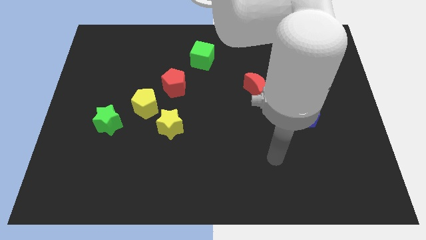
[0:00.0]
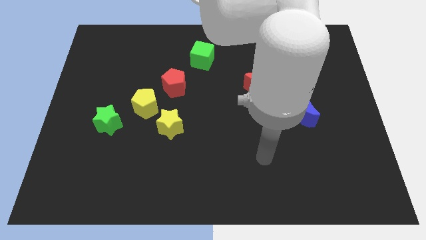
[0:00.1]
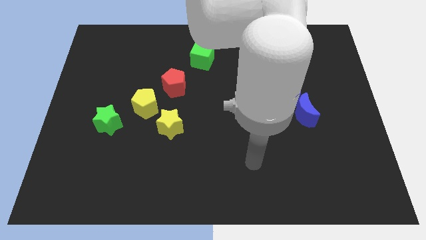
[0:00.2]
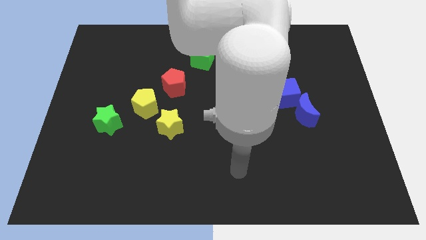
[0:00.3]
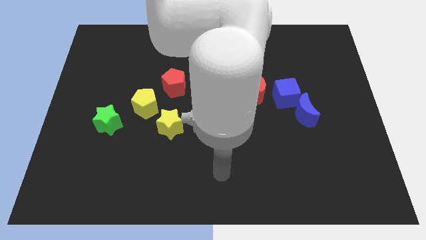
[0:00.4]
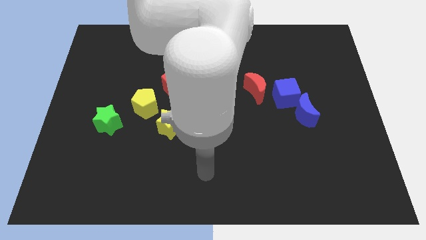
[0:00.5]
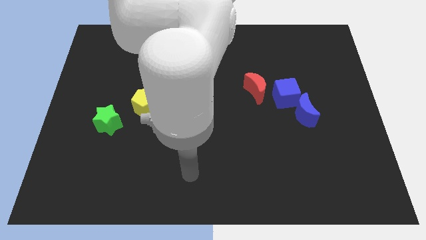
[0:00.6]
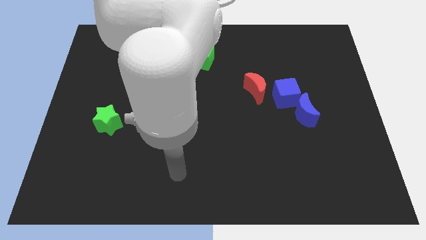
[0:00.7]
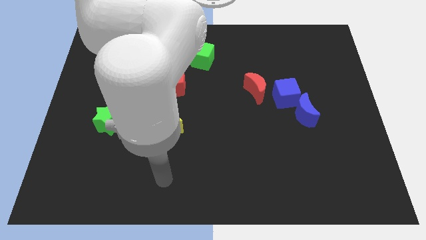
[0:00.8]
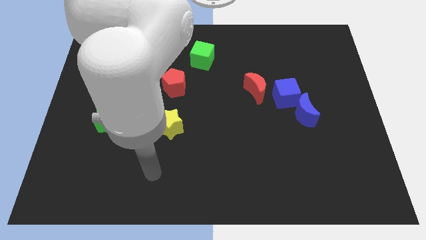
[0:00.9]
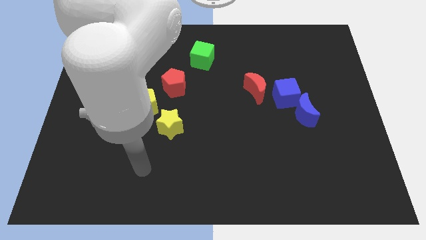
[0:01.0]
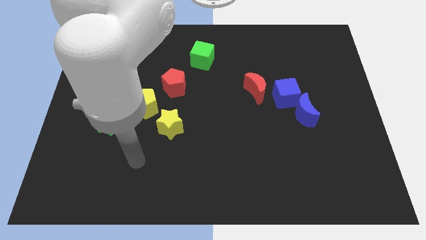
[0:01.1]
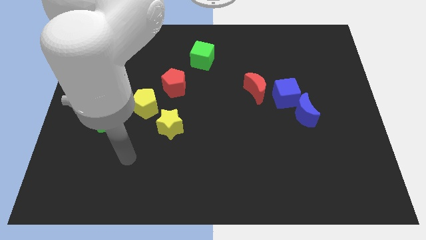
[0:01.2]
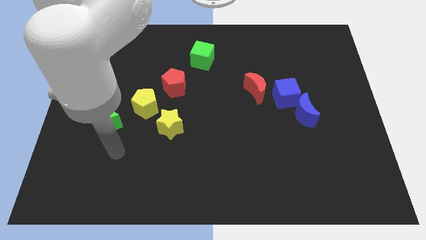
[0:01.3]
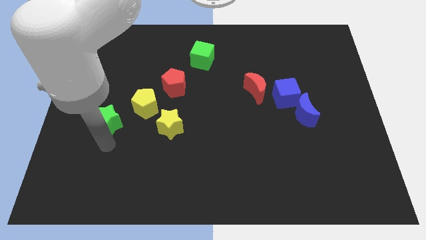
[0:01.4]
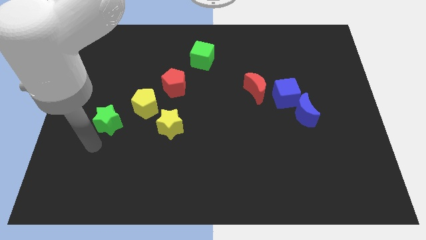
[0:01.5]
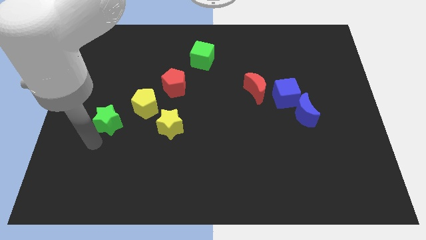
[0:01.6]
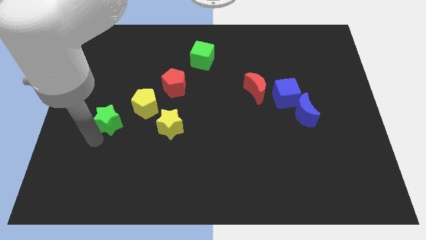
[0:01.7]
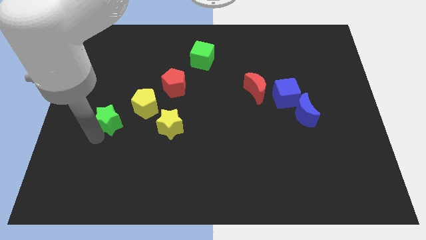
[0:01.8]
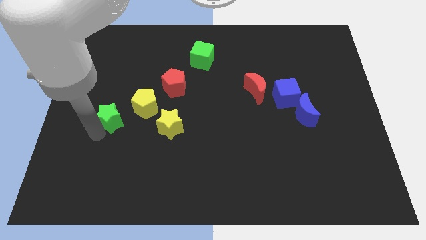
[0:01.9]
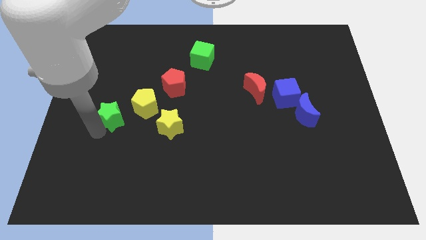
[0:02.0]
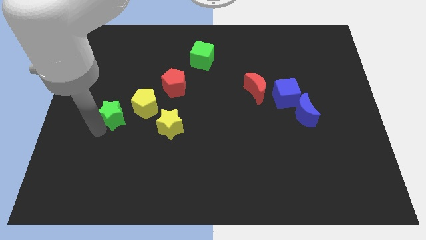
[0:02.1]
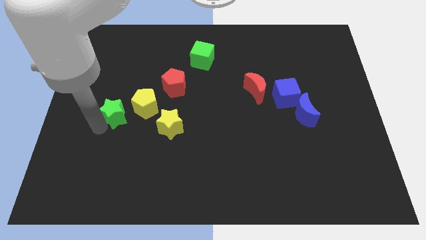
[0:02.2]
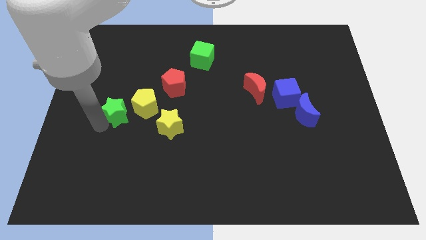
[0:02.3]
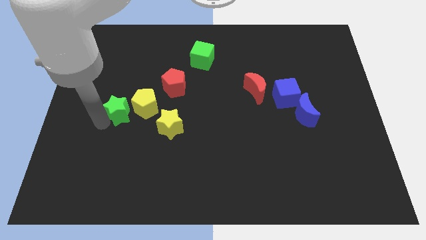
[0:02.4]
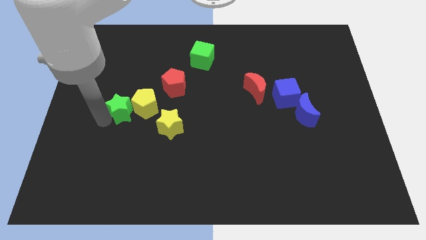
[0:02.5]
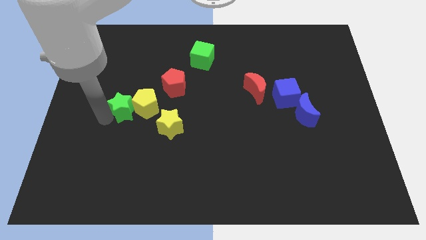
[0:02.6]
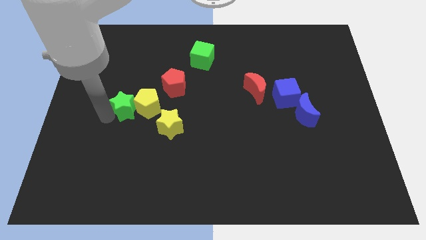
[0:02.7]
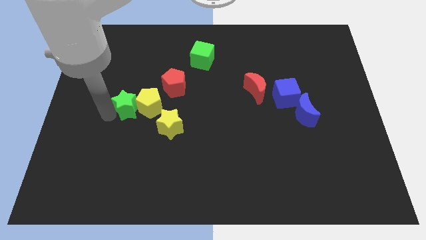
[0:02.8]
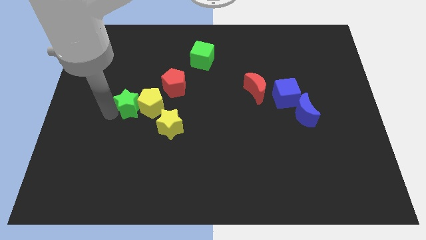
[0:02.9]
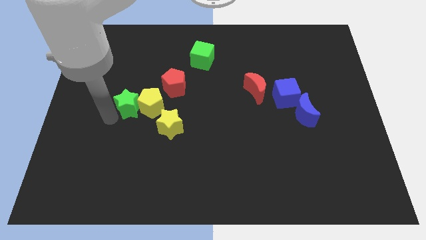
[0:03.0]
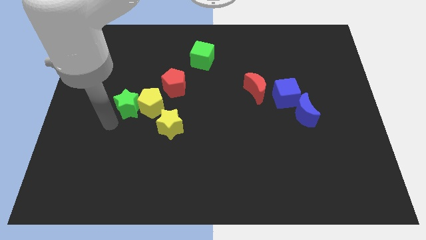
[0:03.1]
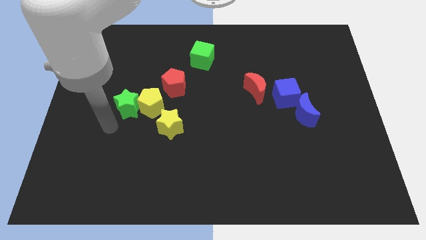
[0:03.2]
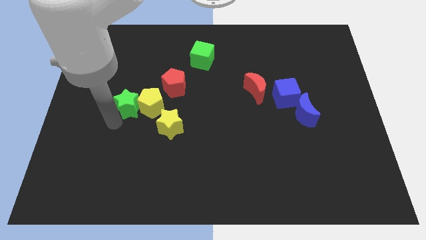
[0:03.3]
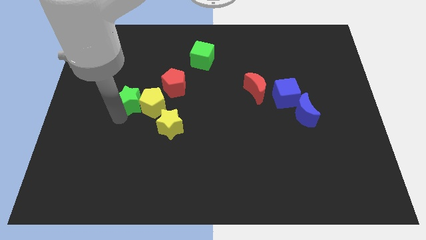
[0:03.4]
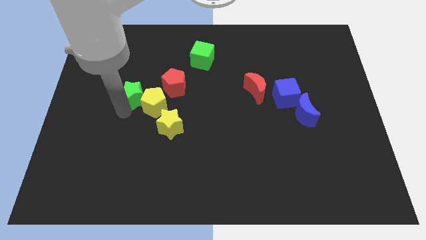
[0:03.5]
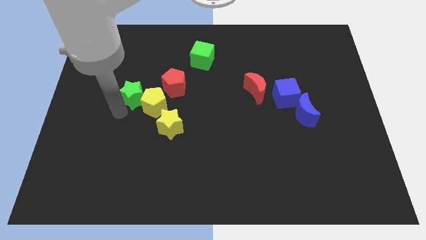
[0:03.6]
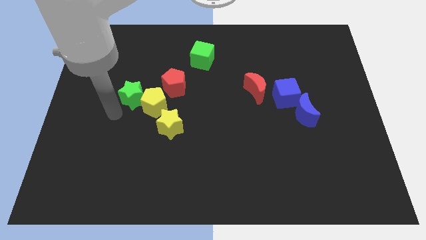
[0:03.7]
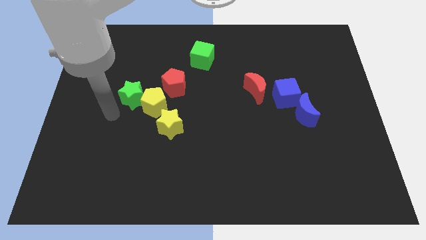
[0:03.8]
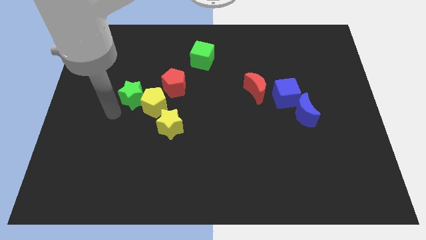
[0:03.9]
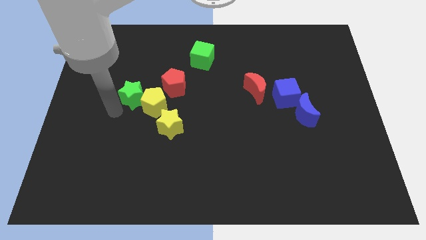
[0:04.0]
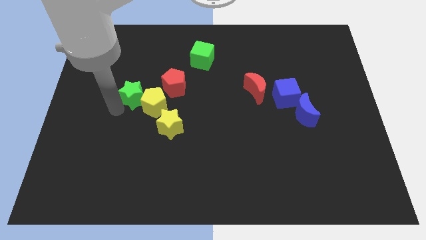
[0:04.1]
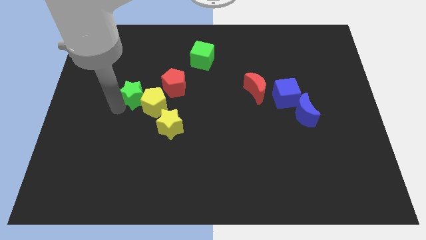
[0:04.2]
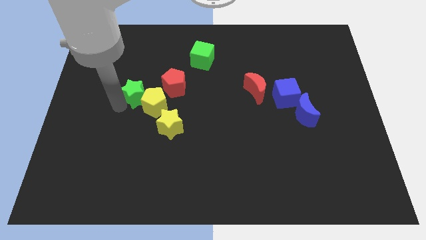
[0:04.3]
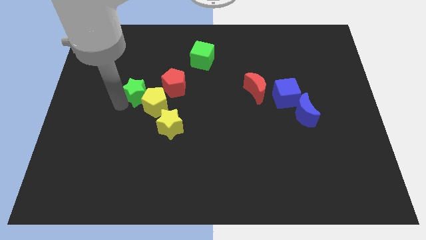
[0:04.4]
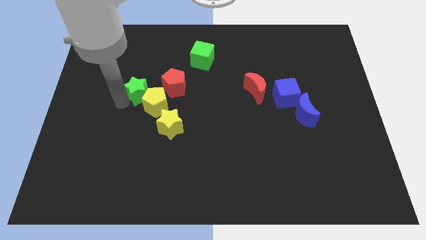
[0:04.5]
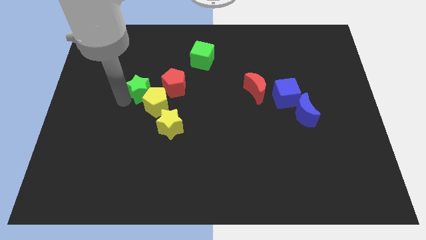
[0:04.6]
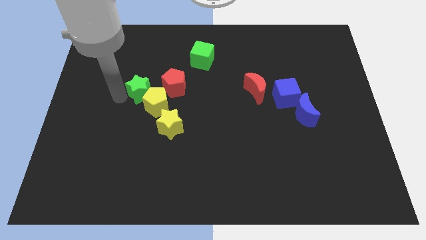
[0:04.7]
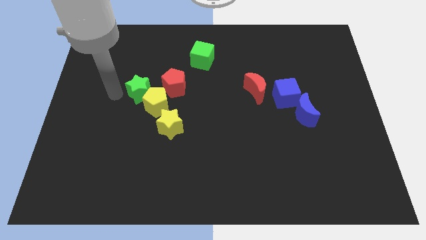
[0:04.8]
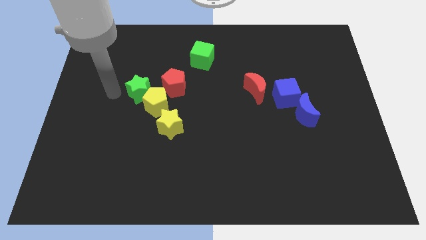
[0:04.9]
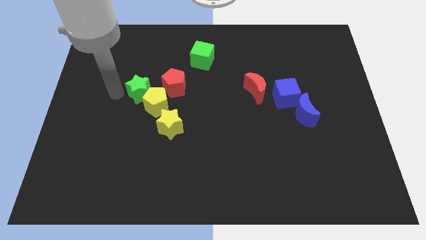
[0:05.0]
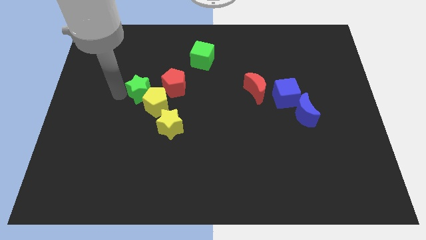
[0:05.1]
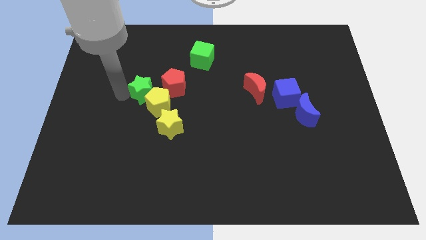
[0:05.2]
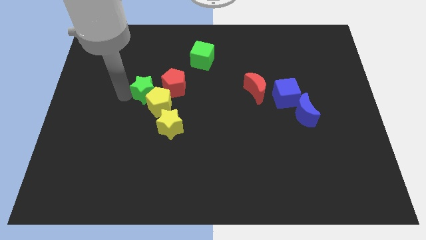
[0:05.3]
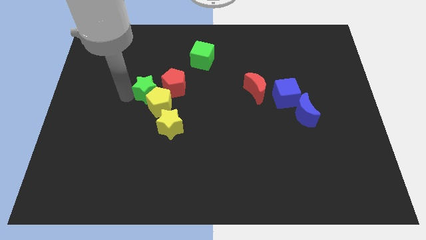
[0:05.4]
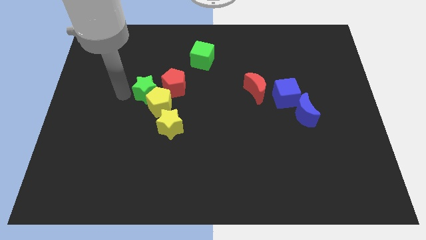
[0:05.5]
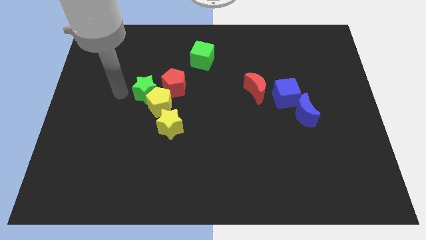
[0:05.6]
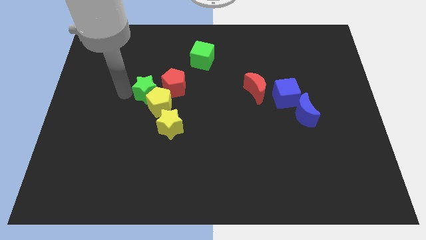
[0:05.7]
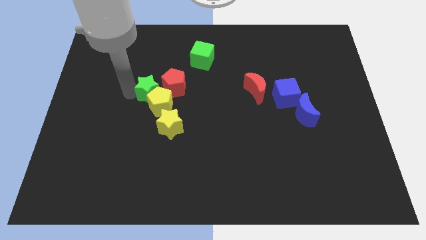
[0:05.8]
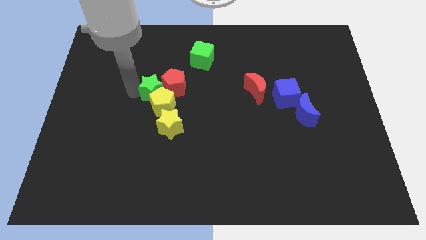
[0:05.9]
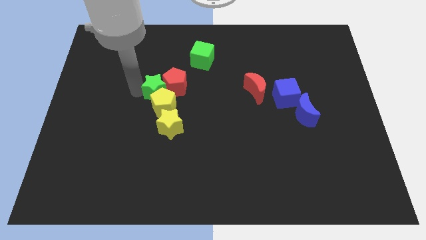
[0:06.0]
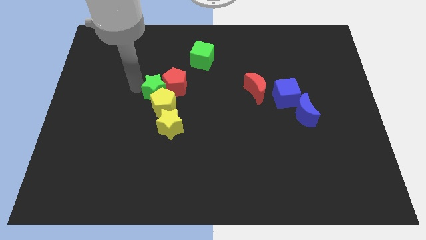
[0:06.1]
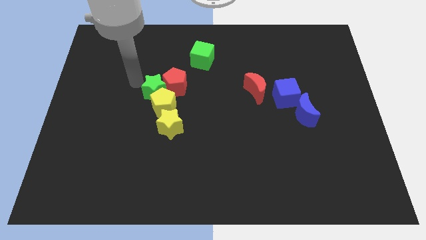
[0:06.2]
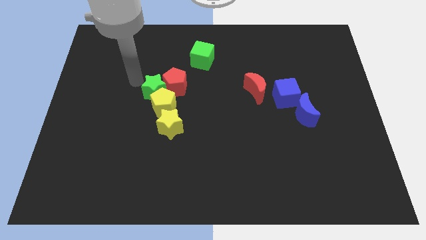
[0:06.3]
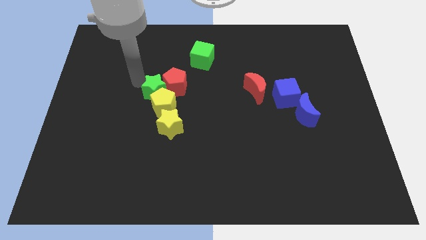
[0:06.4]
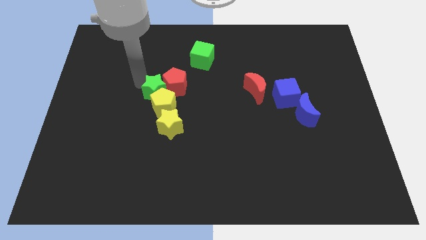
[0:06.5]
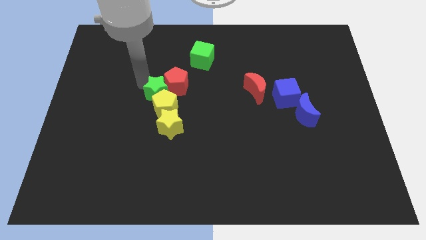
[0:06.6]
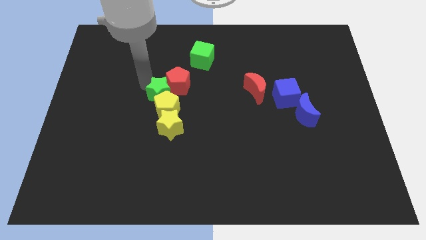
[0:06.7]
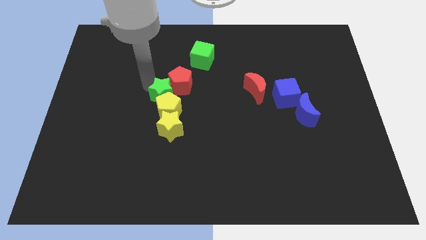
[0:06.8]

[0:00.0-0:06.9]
push the green star to the center of the board
